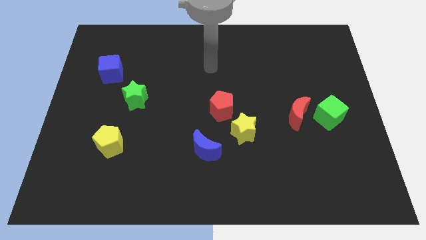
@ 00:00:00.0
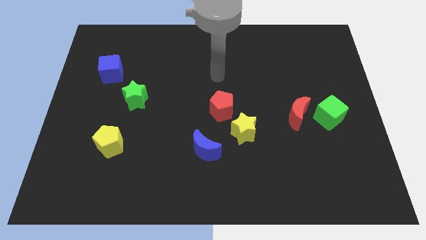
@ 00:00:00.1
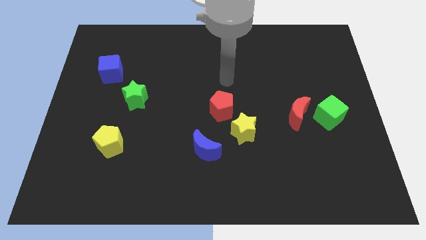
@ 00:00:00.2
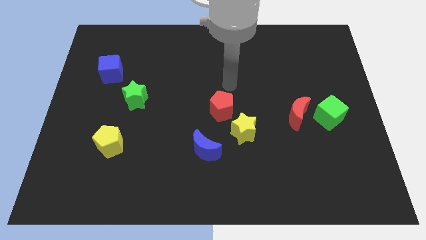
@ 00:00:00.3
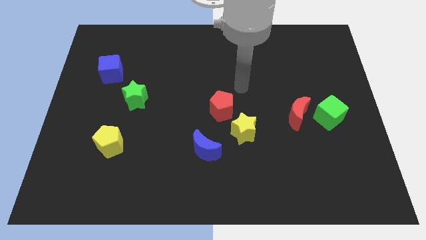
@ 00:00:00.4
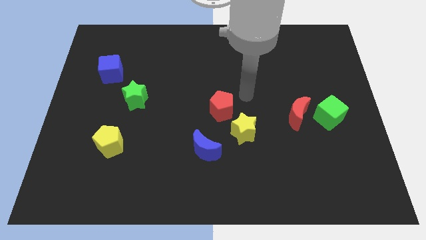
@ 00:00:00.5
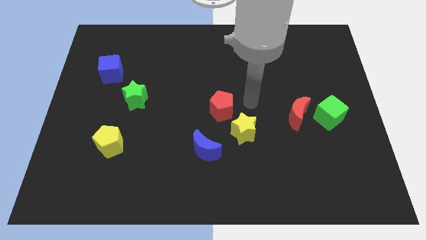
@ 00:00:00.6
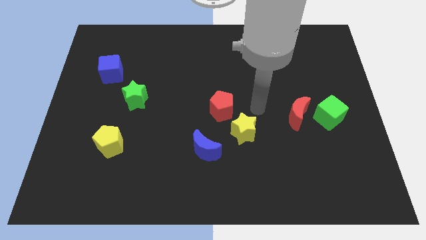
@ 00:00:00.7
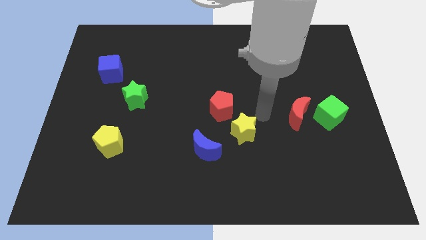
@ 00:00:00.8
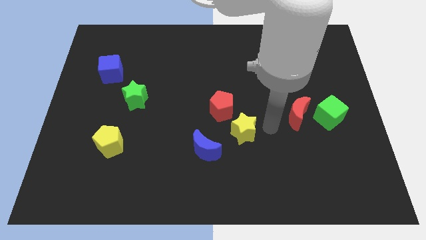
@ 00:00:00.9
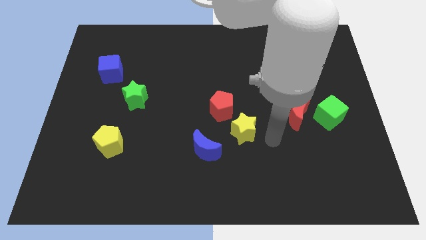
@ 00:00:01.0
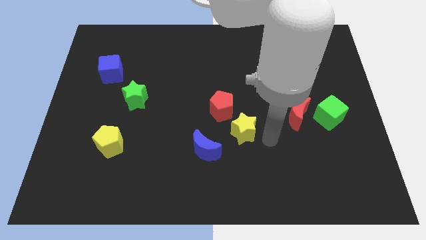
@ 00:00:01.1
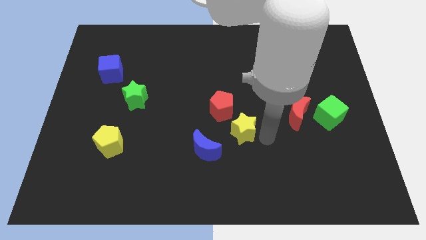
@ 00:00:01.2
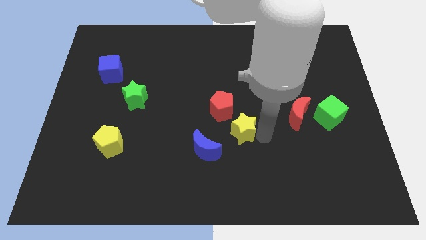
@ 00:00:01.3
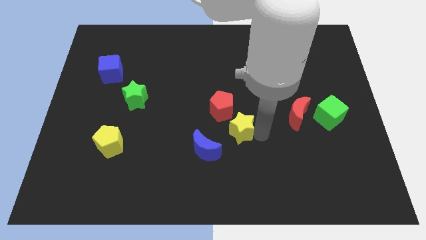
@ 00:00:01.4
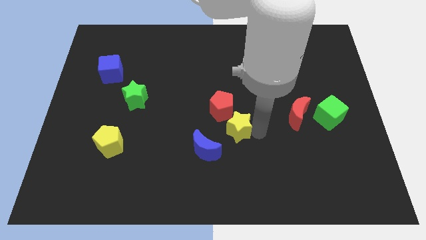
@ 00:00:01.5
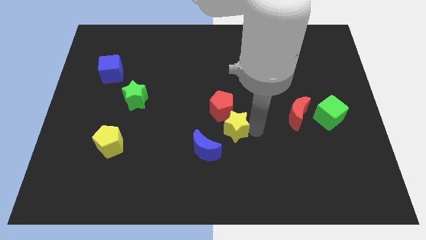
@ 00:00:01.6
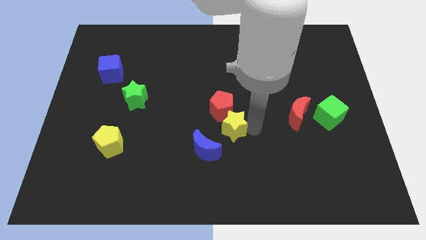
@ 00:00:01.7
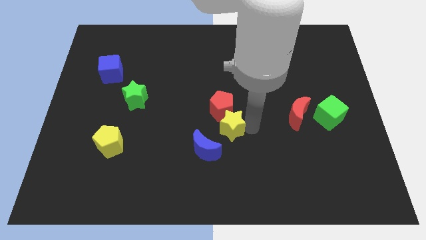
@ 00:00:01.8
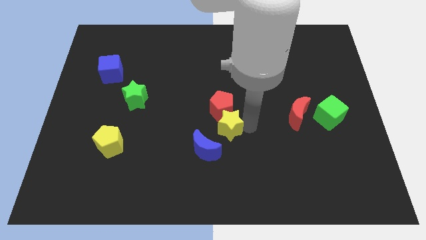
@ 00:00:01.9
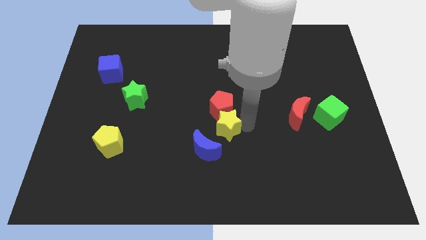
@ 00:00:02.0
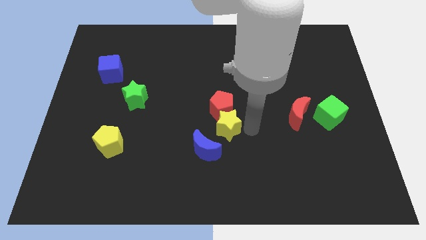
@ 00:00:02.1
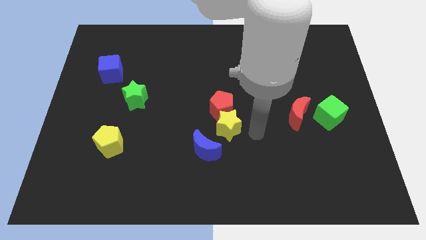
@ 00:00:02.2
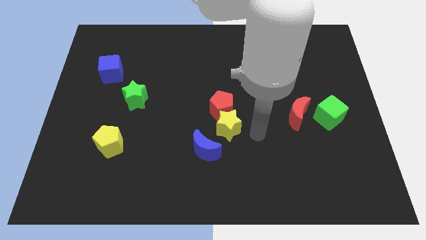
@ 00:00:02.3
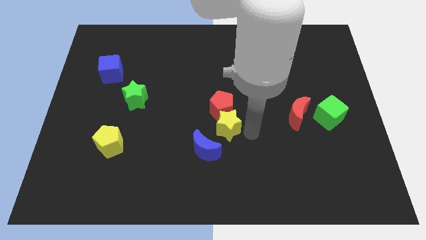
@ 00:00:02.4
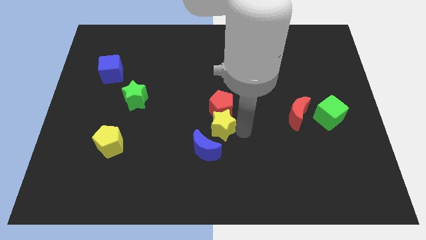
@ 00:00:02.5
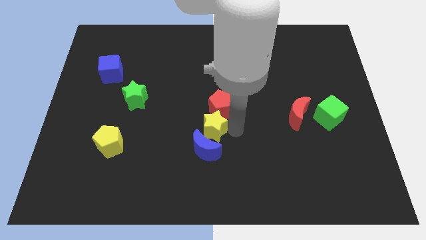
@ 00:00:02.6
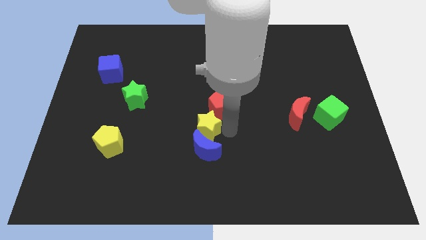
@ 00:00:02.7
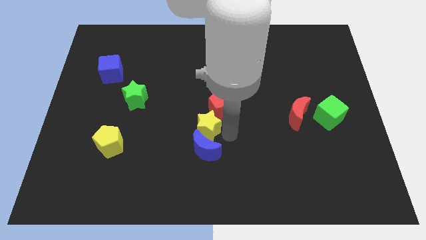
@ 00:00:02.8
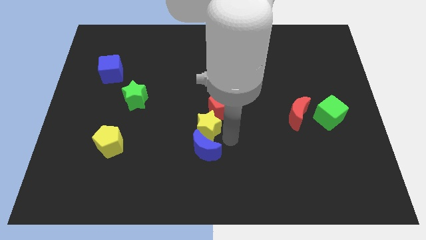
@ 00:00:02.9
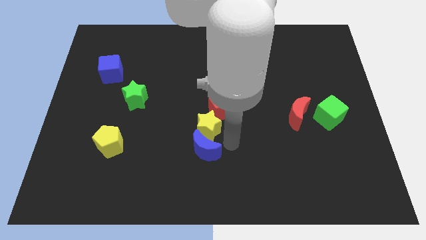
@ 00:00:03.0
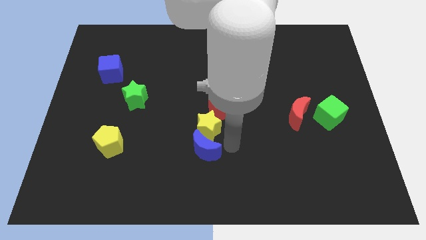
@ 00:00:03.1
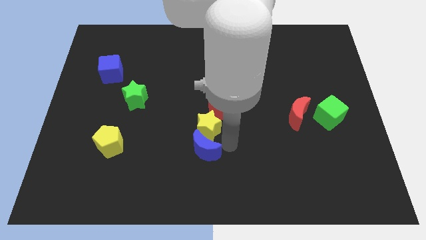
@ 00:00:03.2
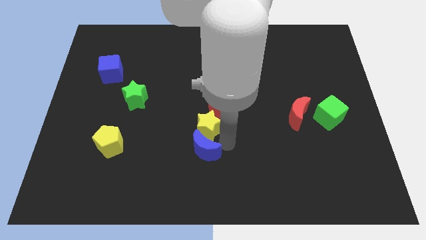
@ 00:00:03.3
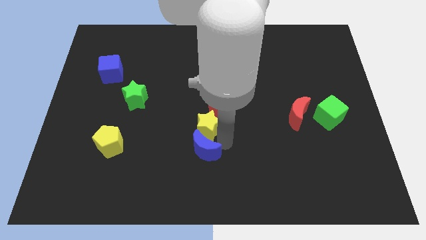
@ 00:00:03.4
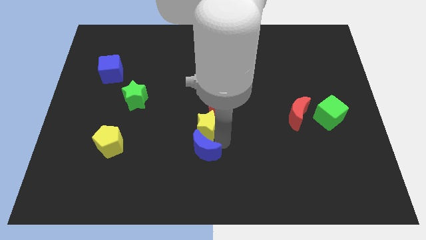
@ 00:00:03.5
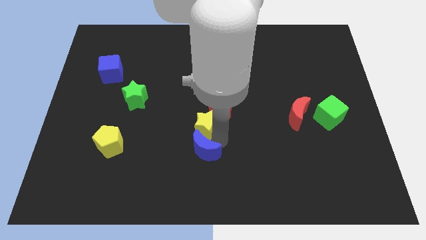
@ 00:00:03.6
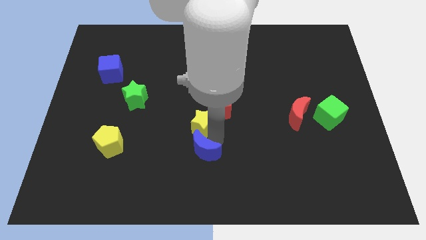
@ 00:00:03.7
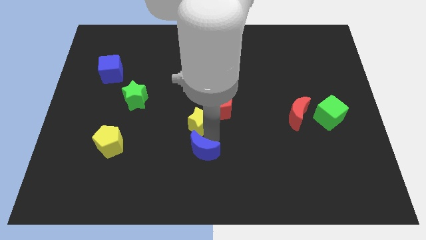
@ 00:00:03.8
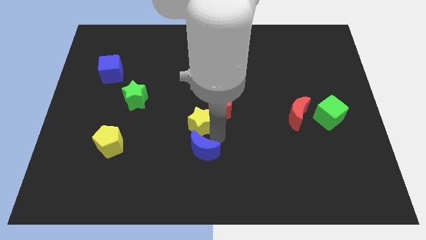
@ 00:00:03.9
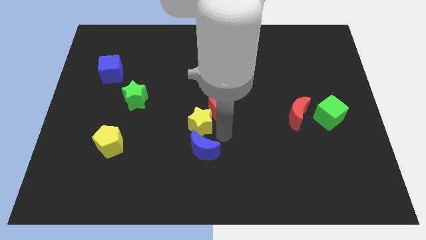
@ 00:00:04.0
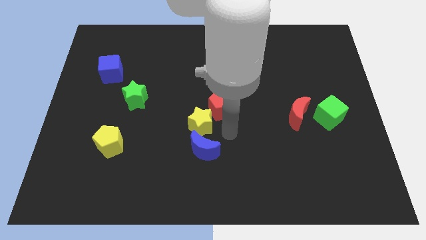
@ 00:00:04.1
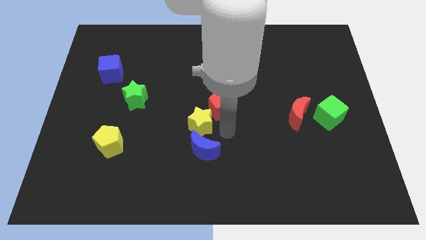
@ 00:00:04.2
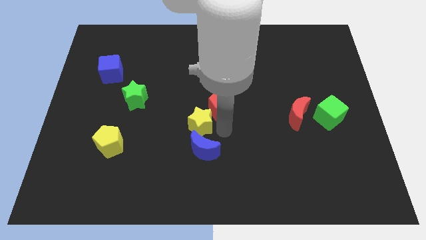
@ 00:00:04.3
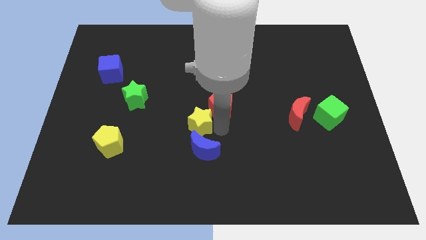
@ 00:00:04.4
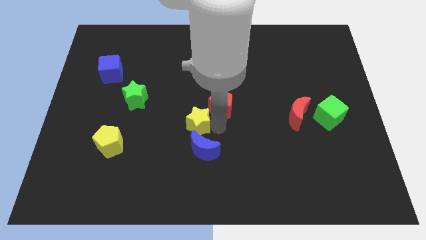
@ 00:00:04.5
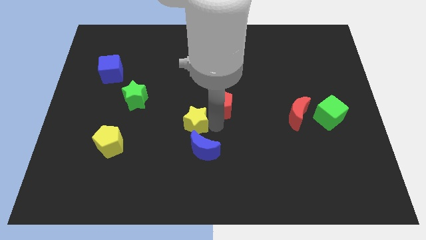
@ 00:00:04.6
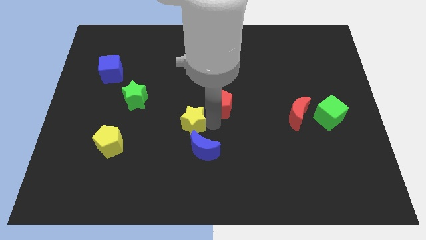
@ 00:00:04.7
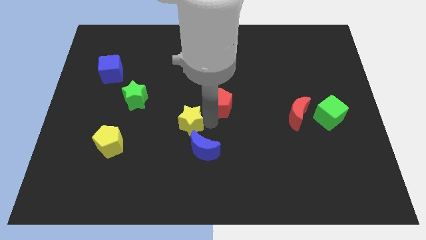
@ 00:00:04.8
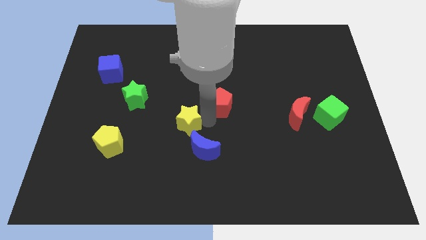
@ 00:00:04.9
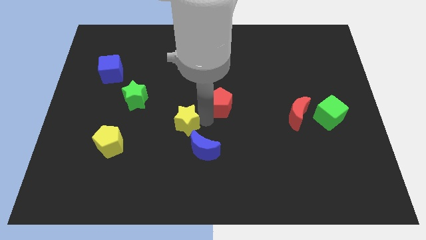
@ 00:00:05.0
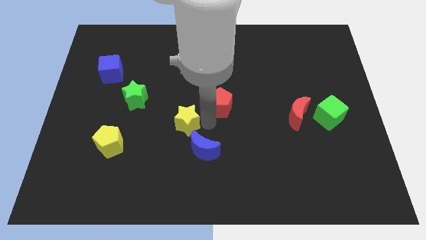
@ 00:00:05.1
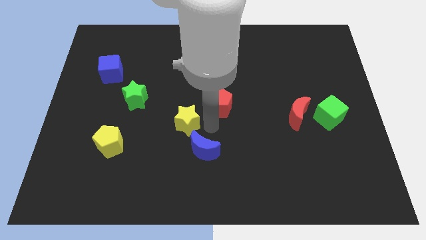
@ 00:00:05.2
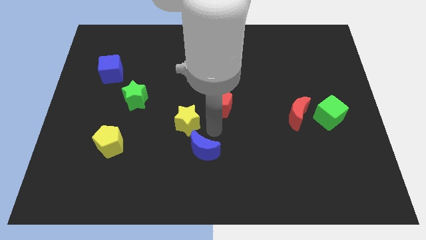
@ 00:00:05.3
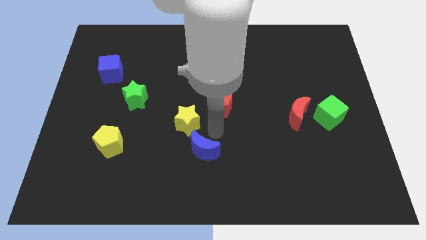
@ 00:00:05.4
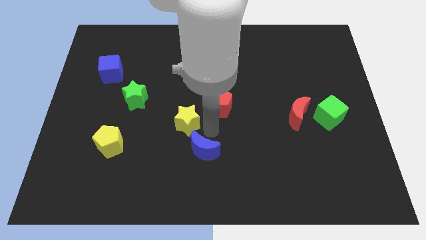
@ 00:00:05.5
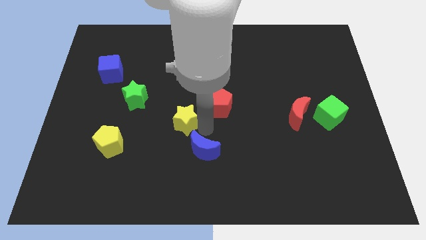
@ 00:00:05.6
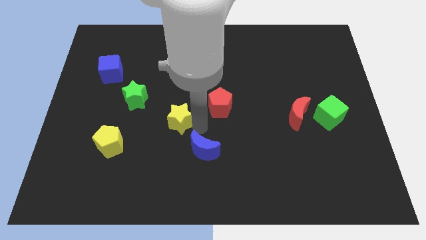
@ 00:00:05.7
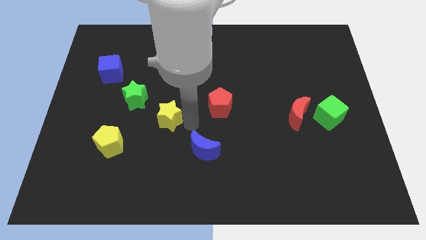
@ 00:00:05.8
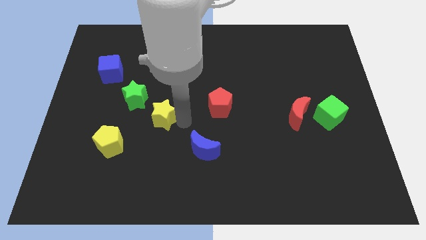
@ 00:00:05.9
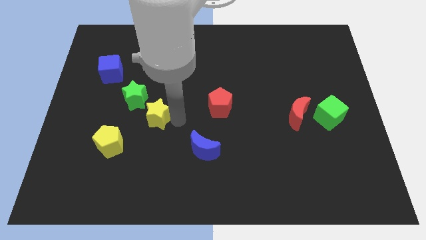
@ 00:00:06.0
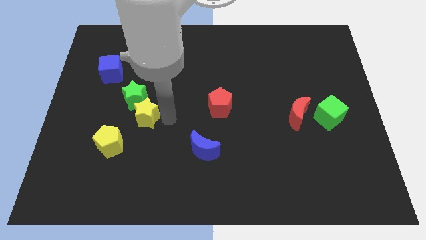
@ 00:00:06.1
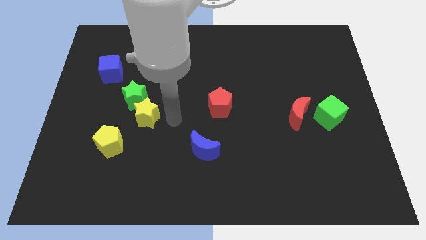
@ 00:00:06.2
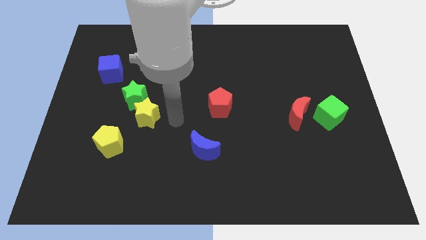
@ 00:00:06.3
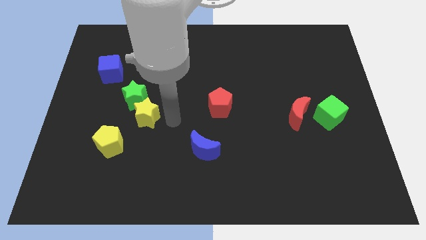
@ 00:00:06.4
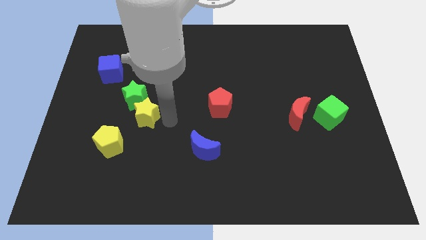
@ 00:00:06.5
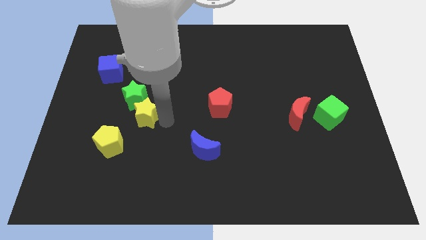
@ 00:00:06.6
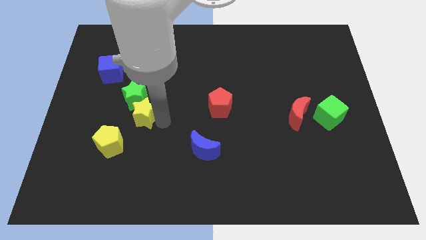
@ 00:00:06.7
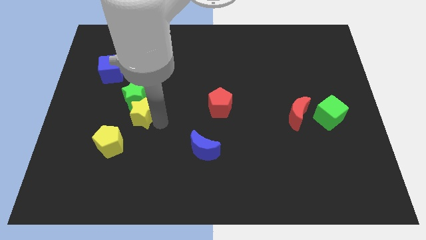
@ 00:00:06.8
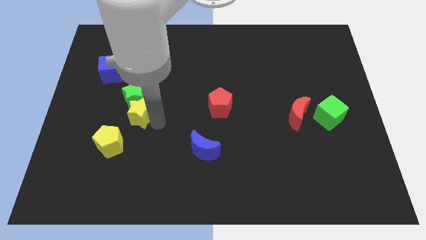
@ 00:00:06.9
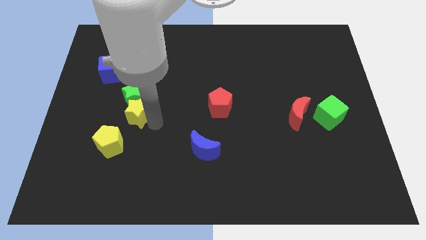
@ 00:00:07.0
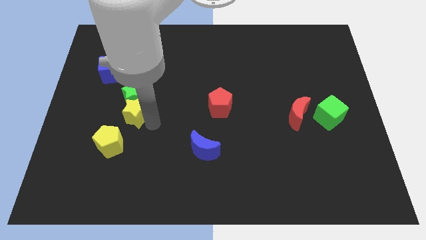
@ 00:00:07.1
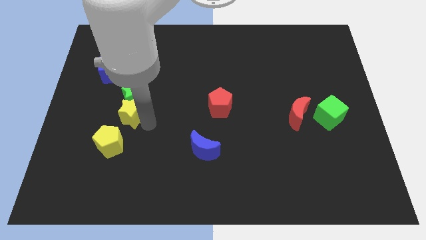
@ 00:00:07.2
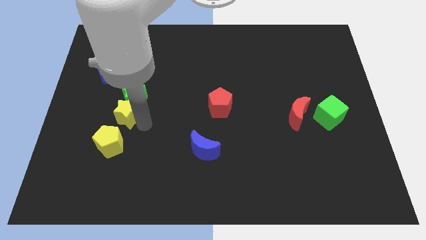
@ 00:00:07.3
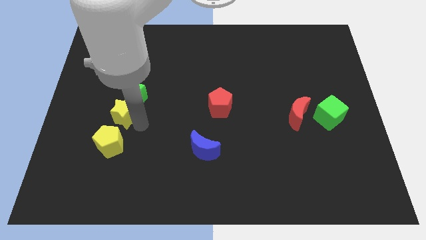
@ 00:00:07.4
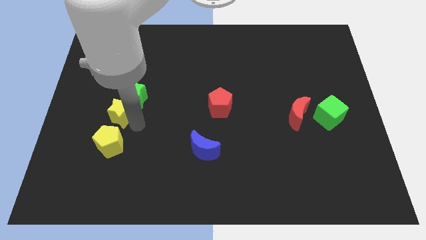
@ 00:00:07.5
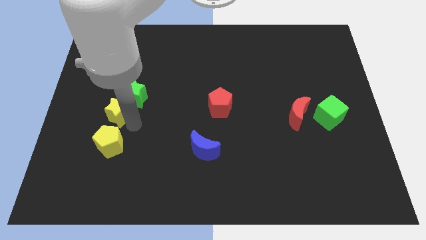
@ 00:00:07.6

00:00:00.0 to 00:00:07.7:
slide the yellow star to the bottom of the blue cube
